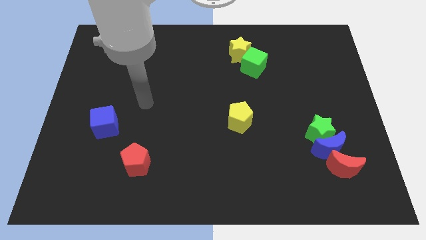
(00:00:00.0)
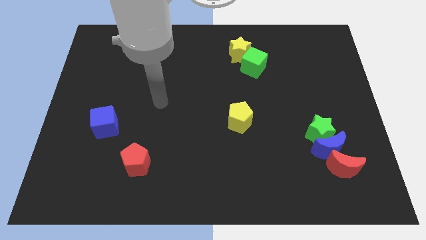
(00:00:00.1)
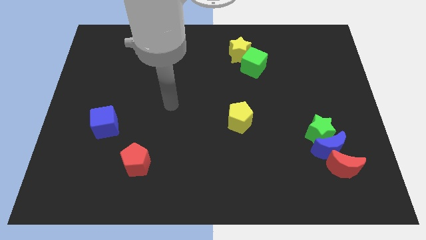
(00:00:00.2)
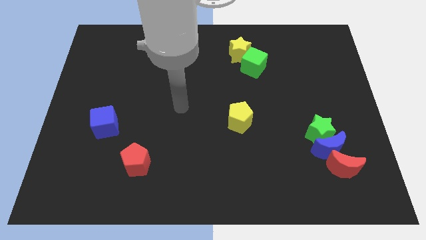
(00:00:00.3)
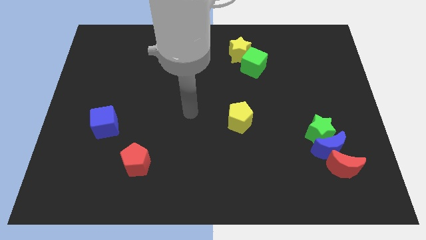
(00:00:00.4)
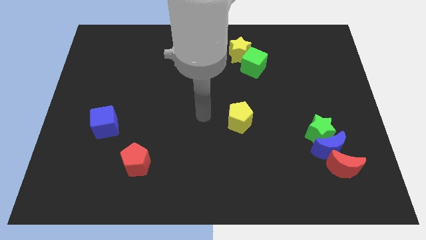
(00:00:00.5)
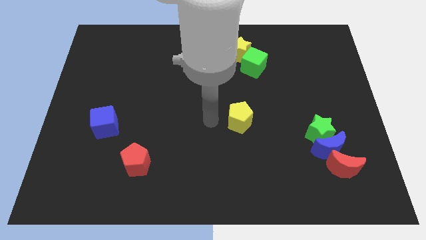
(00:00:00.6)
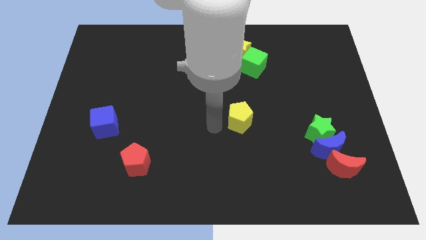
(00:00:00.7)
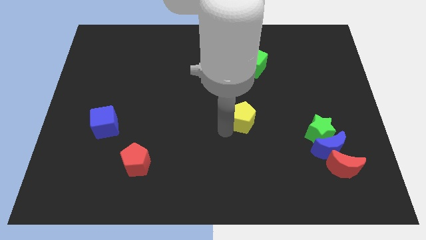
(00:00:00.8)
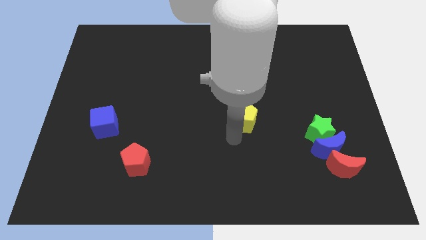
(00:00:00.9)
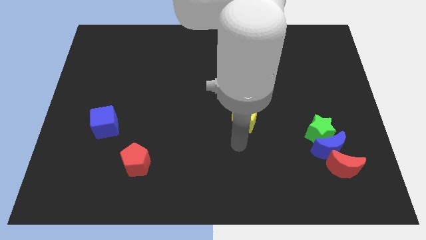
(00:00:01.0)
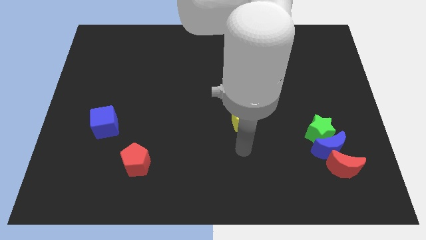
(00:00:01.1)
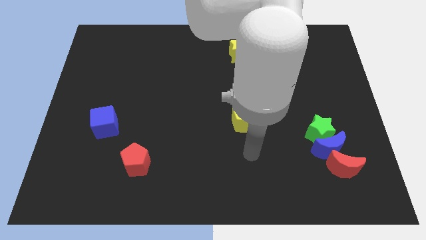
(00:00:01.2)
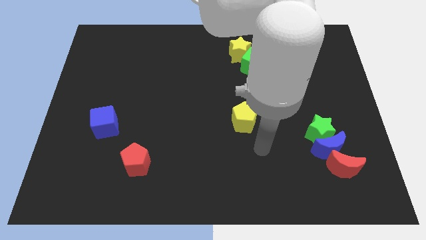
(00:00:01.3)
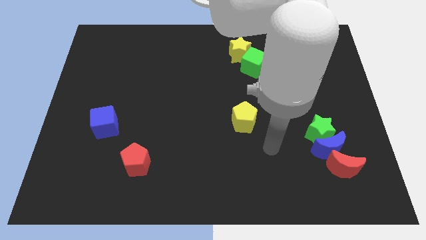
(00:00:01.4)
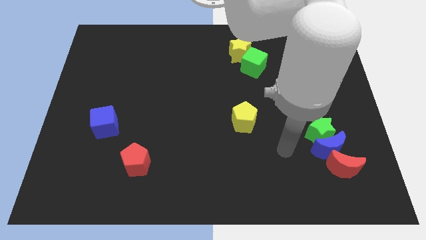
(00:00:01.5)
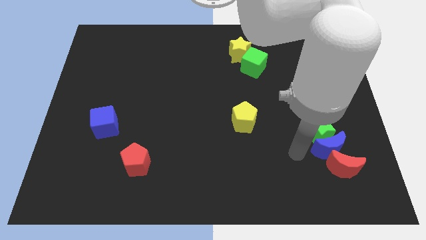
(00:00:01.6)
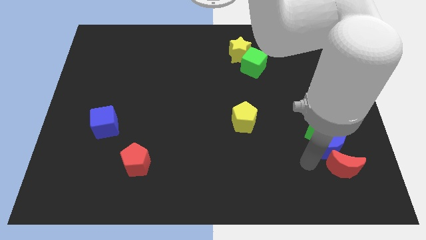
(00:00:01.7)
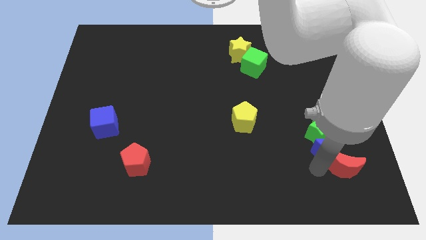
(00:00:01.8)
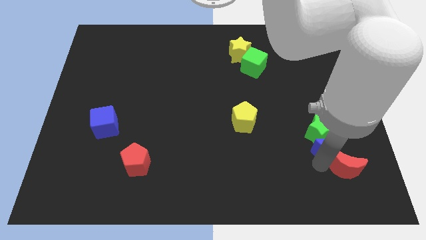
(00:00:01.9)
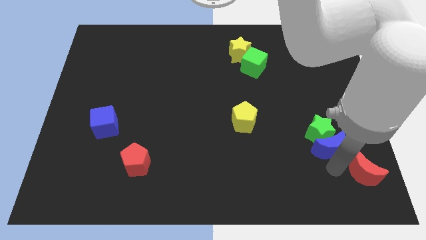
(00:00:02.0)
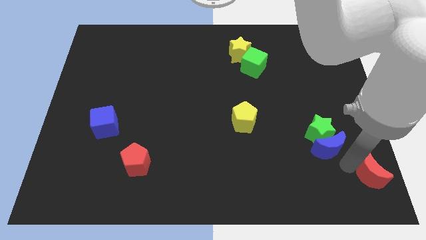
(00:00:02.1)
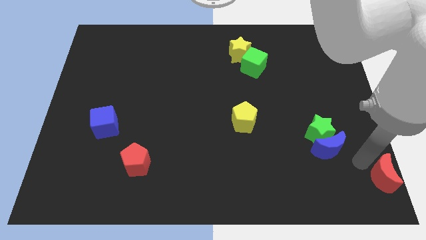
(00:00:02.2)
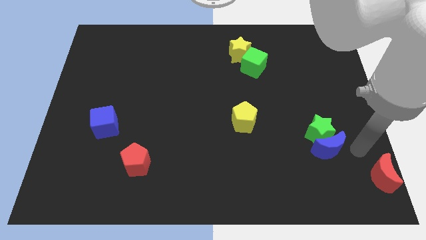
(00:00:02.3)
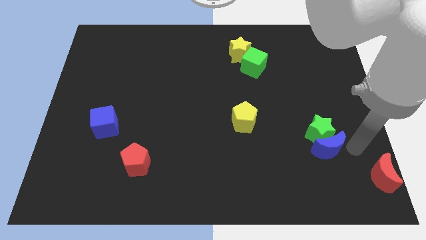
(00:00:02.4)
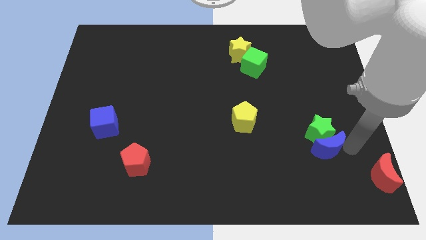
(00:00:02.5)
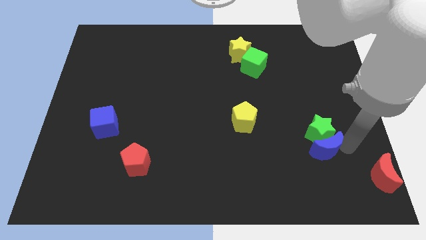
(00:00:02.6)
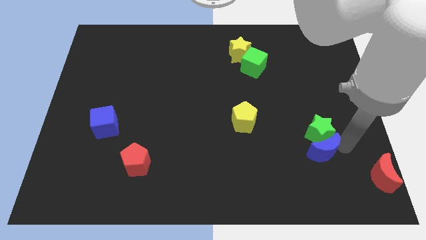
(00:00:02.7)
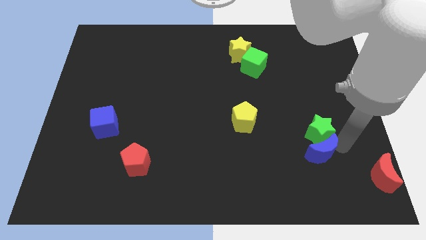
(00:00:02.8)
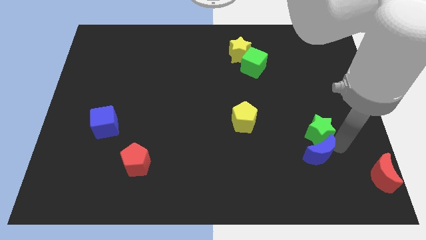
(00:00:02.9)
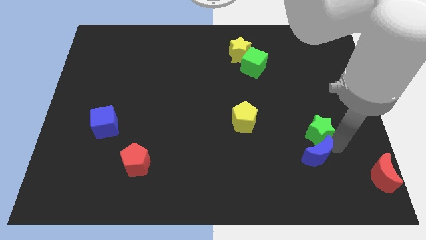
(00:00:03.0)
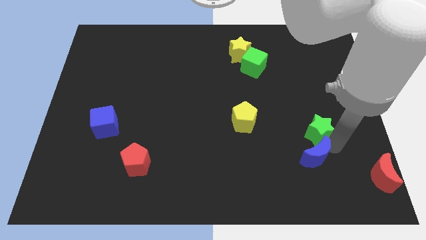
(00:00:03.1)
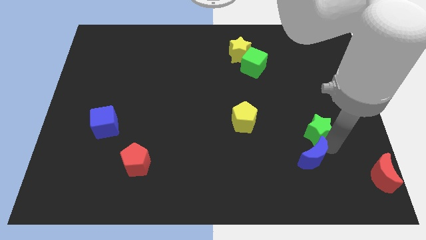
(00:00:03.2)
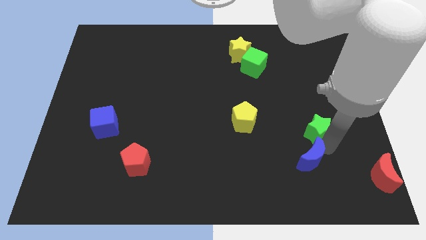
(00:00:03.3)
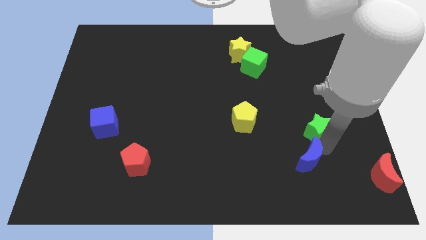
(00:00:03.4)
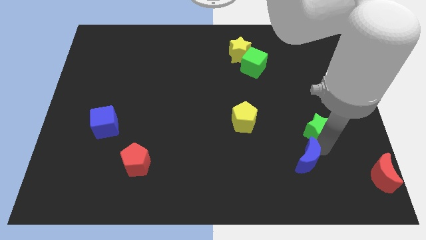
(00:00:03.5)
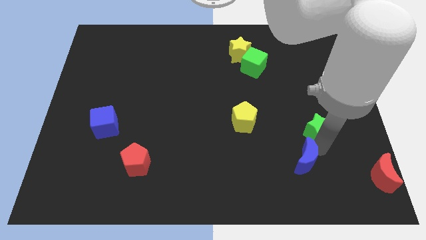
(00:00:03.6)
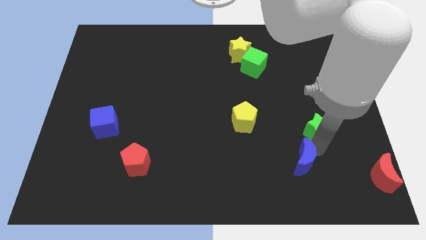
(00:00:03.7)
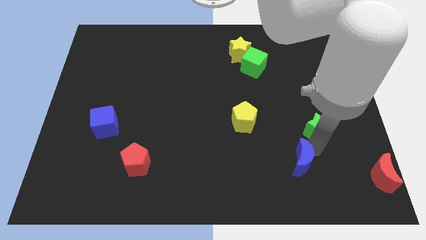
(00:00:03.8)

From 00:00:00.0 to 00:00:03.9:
pull the blue moon apart from the green star and red moon

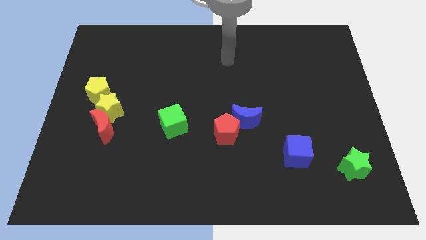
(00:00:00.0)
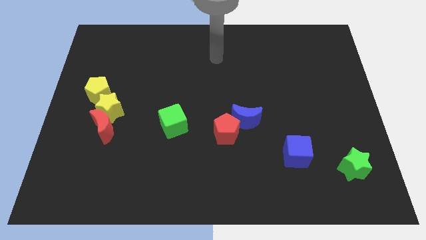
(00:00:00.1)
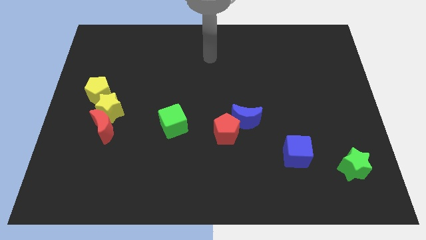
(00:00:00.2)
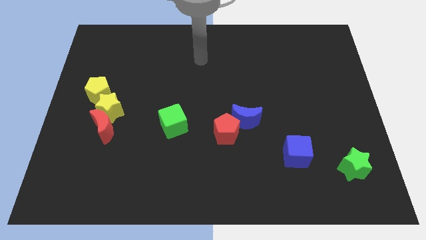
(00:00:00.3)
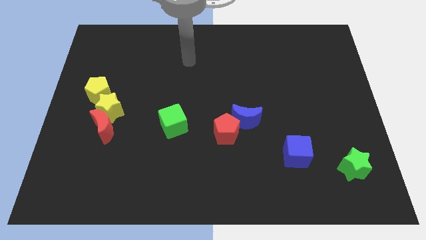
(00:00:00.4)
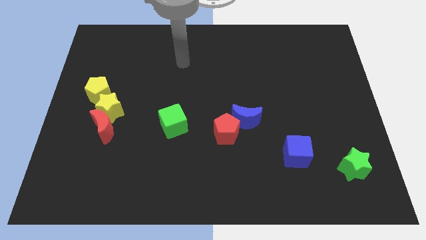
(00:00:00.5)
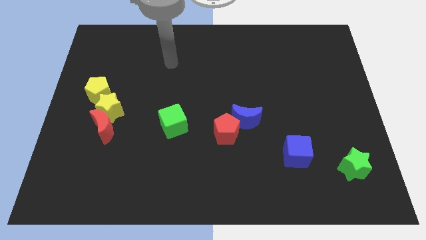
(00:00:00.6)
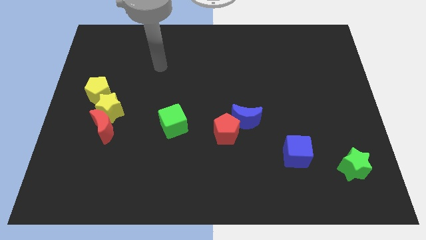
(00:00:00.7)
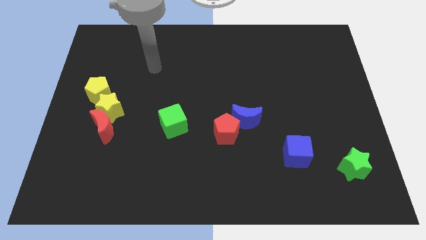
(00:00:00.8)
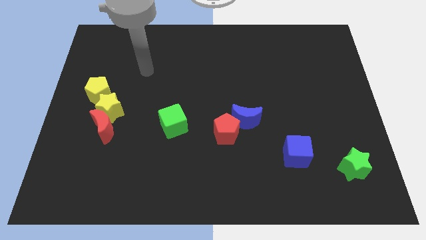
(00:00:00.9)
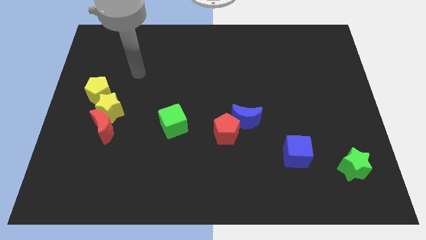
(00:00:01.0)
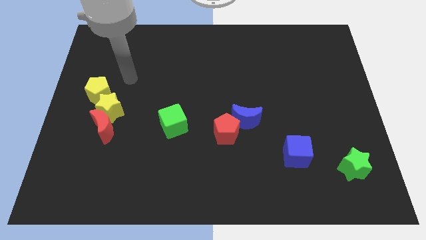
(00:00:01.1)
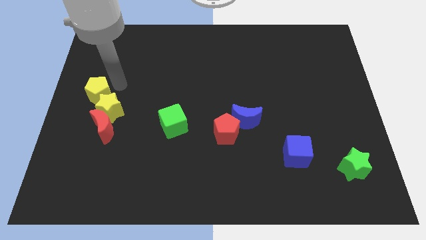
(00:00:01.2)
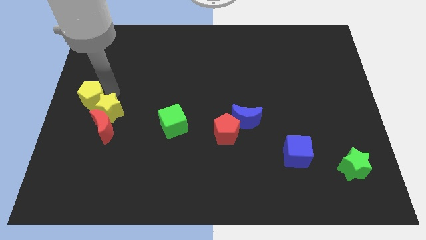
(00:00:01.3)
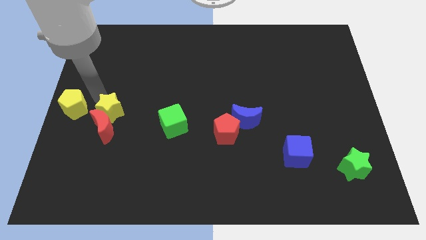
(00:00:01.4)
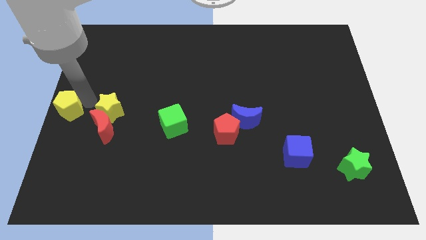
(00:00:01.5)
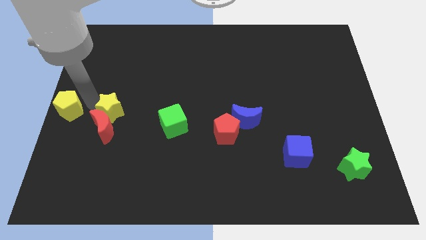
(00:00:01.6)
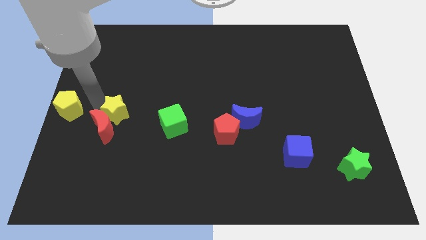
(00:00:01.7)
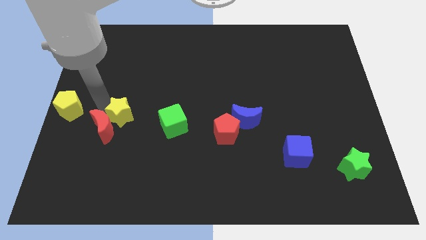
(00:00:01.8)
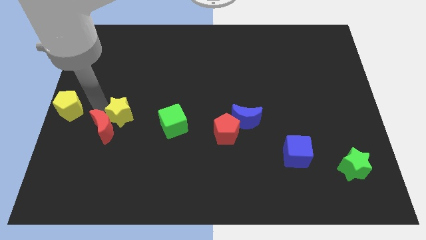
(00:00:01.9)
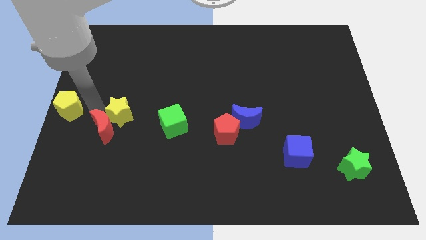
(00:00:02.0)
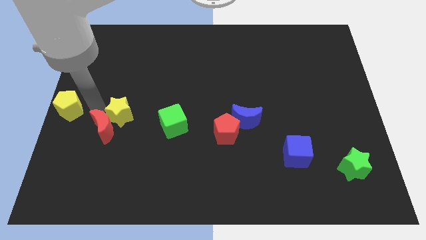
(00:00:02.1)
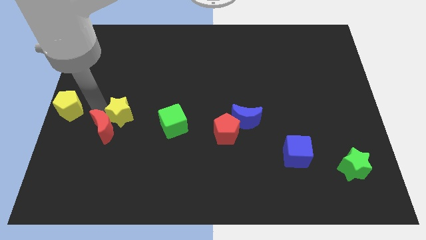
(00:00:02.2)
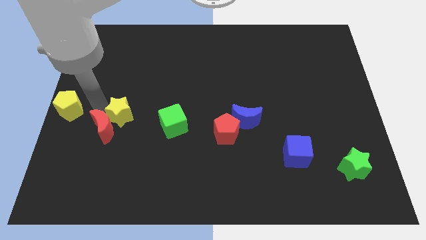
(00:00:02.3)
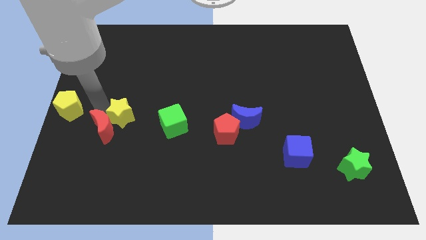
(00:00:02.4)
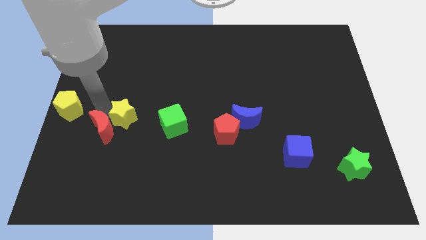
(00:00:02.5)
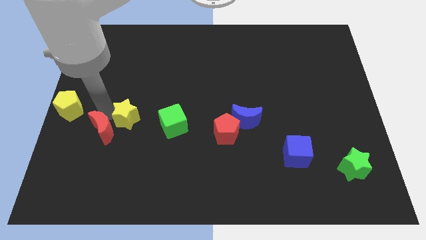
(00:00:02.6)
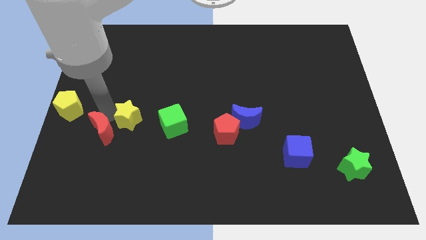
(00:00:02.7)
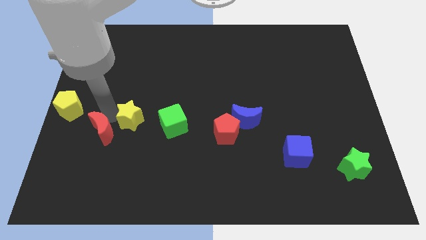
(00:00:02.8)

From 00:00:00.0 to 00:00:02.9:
separate the yellow star from the red moon and yellow pentagon

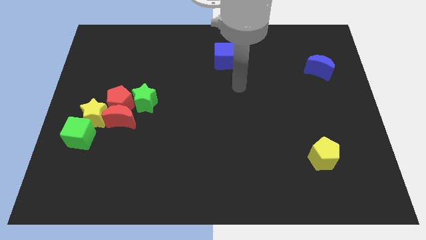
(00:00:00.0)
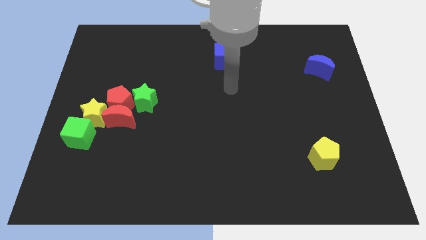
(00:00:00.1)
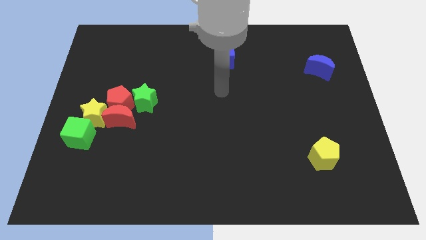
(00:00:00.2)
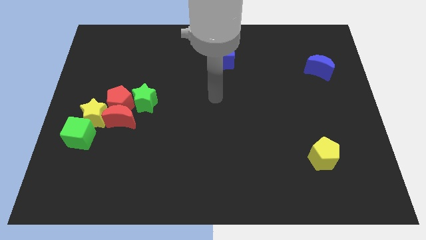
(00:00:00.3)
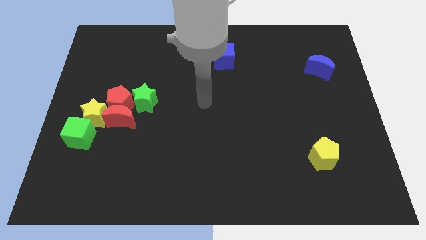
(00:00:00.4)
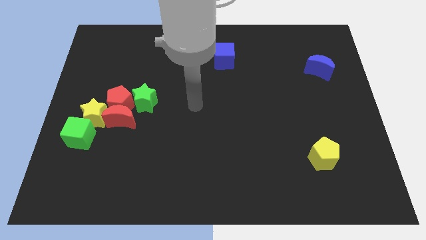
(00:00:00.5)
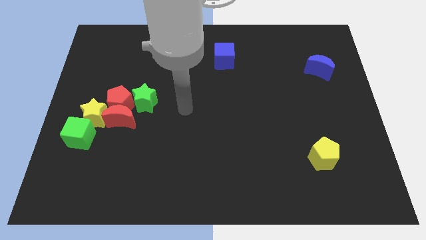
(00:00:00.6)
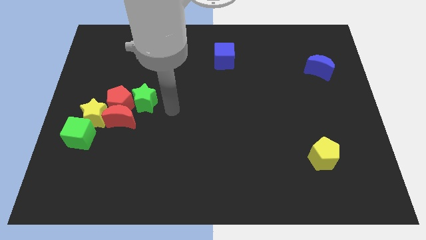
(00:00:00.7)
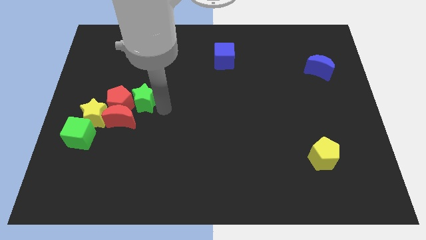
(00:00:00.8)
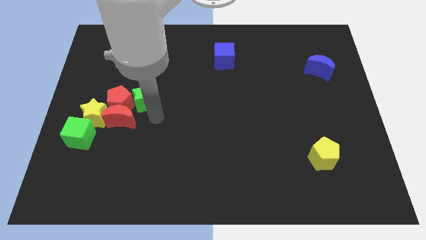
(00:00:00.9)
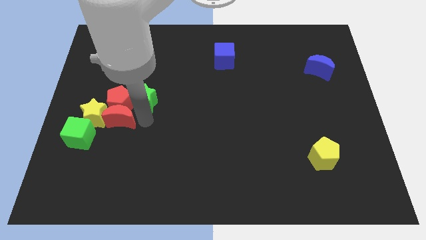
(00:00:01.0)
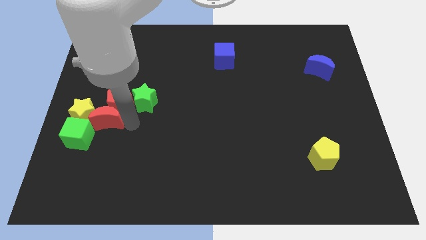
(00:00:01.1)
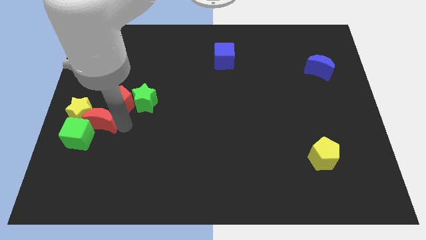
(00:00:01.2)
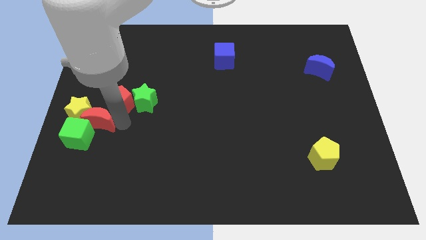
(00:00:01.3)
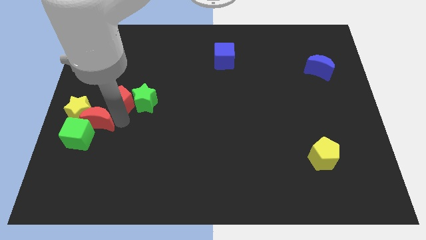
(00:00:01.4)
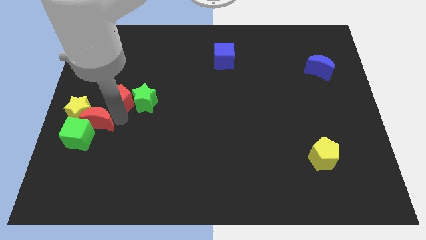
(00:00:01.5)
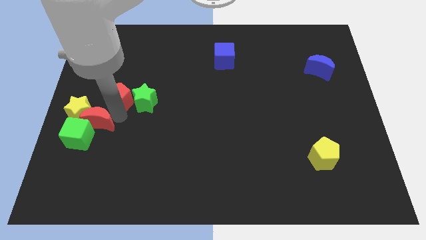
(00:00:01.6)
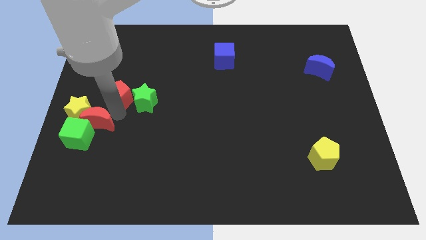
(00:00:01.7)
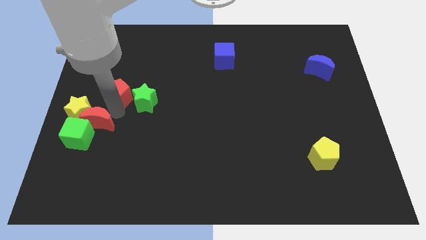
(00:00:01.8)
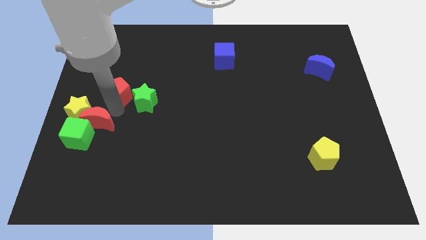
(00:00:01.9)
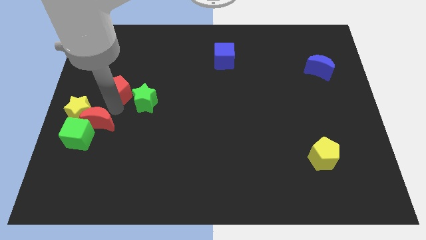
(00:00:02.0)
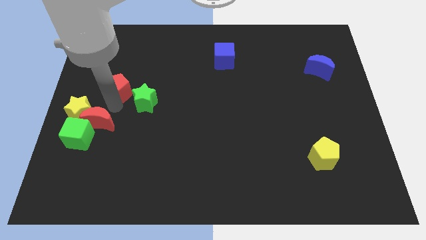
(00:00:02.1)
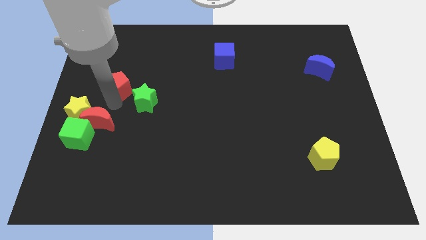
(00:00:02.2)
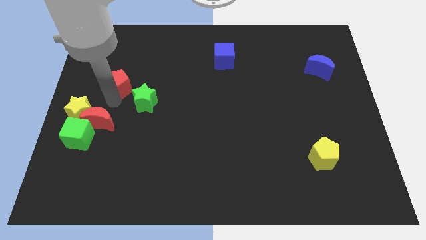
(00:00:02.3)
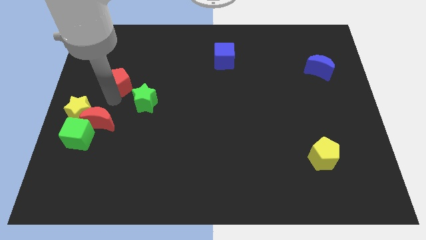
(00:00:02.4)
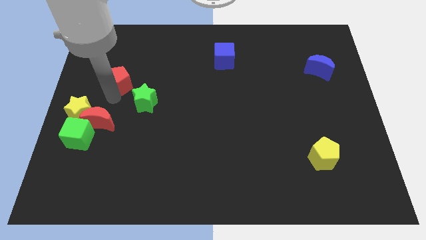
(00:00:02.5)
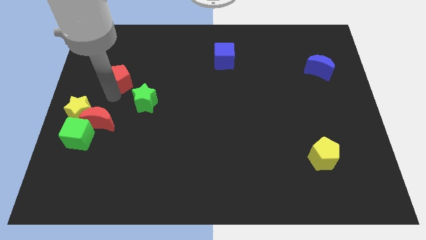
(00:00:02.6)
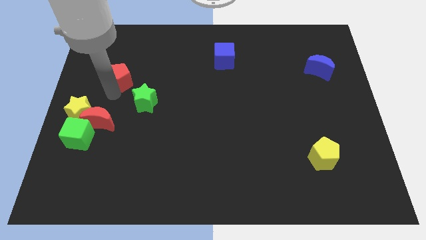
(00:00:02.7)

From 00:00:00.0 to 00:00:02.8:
move the red pentagon away from the red moon, green star, and yellow star
